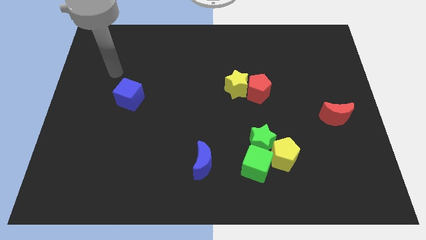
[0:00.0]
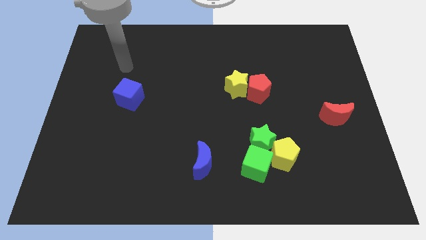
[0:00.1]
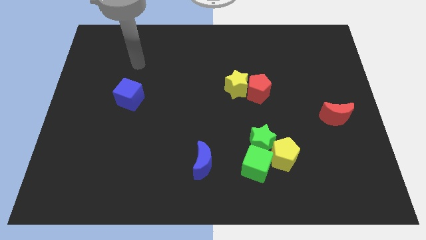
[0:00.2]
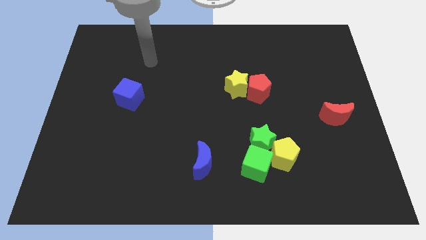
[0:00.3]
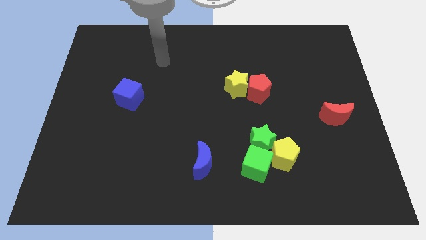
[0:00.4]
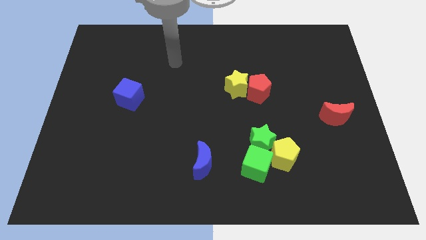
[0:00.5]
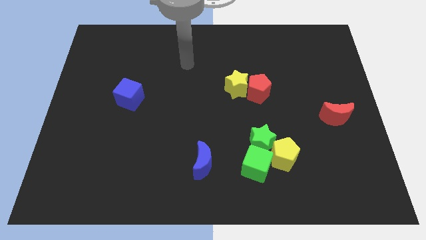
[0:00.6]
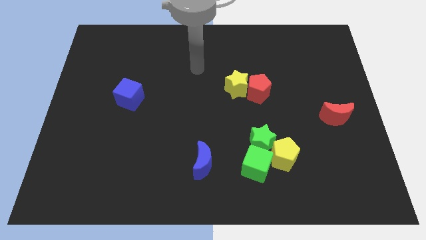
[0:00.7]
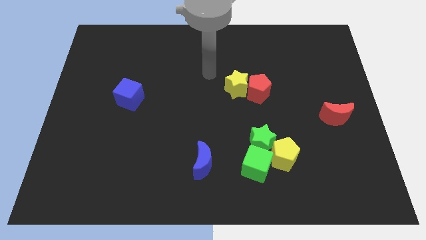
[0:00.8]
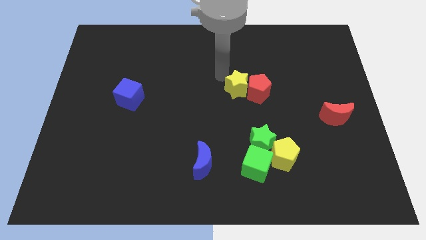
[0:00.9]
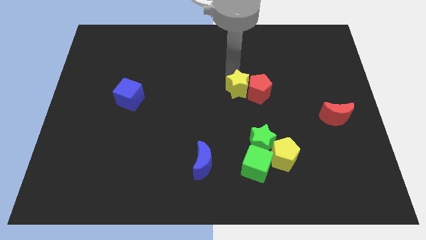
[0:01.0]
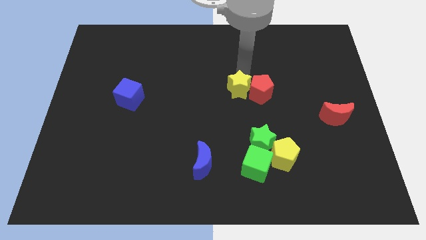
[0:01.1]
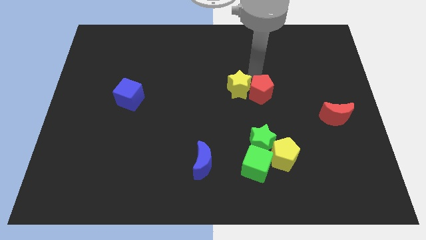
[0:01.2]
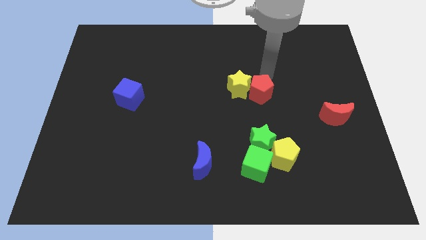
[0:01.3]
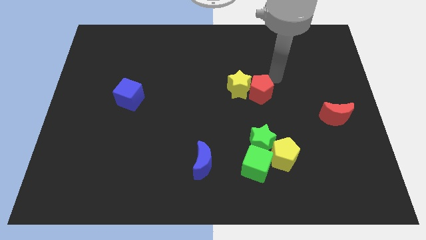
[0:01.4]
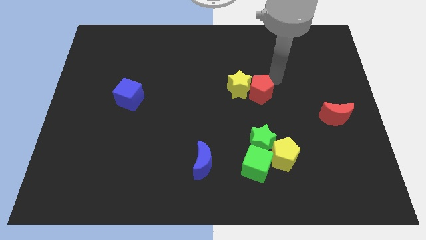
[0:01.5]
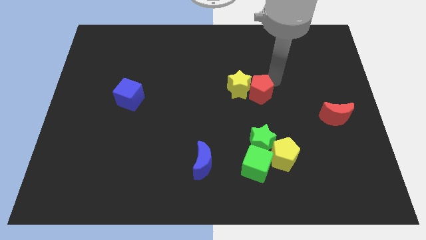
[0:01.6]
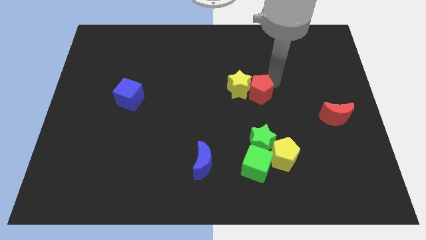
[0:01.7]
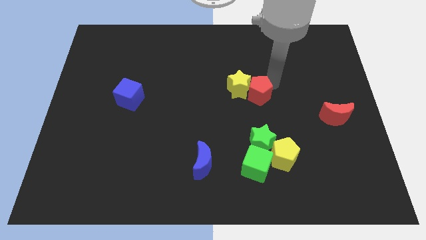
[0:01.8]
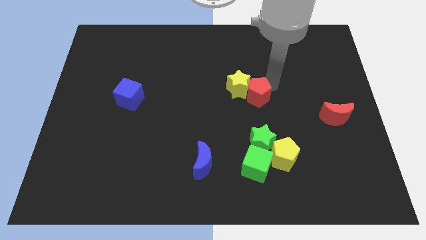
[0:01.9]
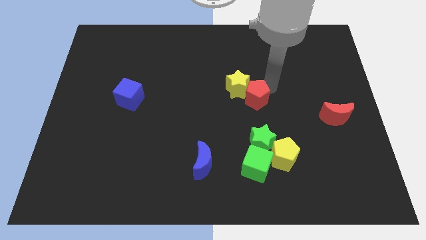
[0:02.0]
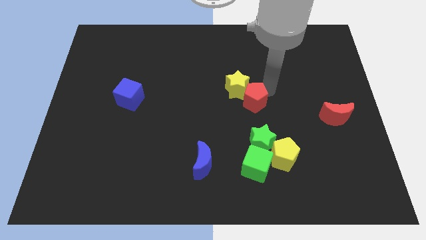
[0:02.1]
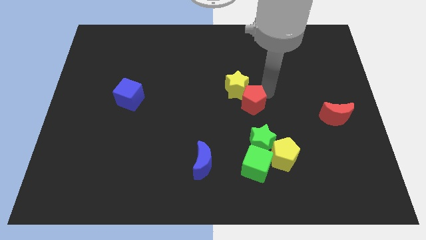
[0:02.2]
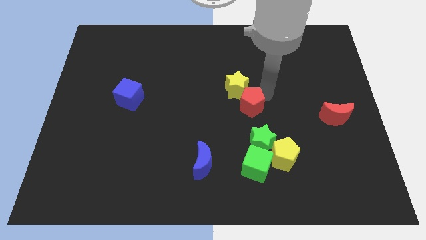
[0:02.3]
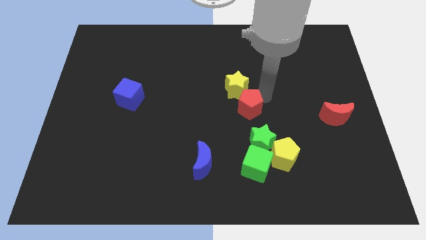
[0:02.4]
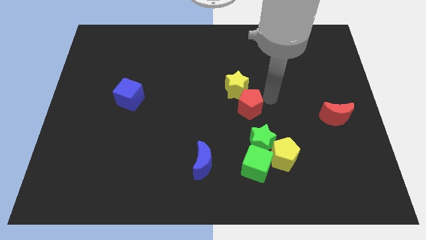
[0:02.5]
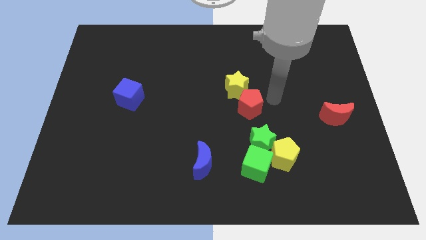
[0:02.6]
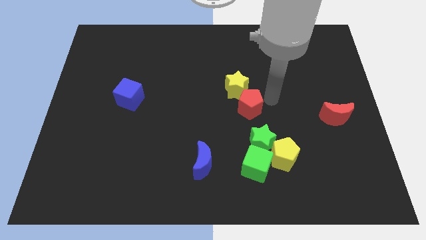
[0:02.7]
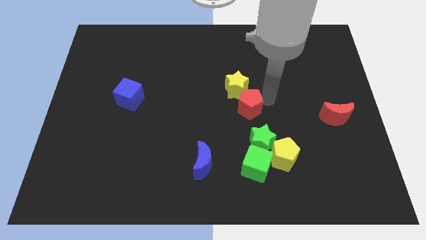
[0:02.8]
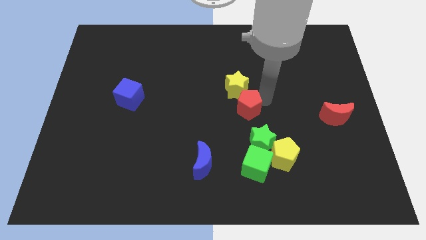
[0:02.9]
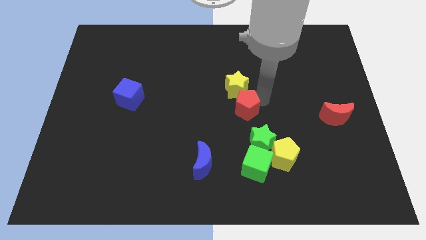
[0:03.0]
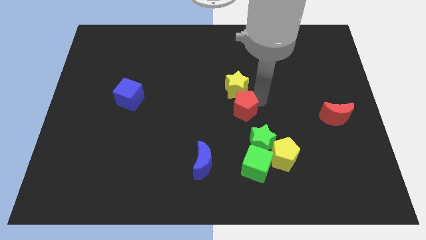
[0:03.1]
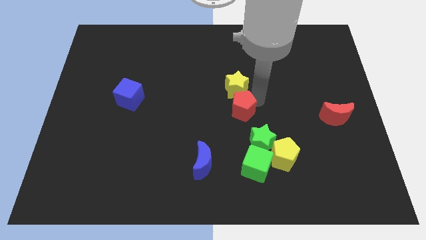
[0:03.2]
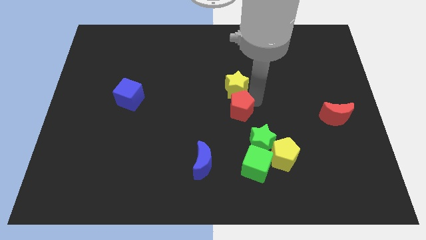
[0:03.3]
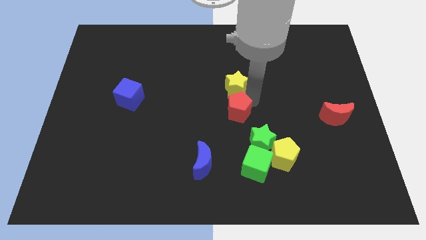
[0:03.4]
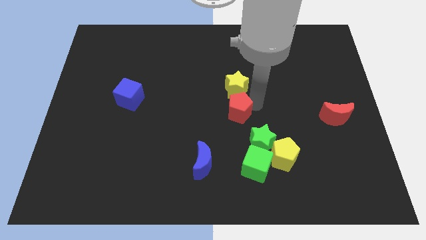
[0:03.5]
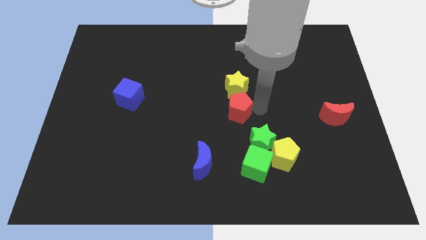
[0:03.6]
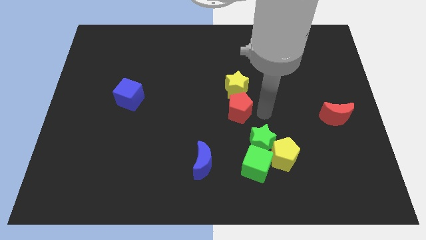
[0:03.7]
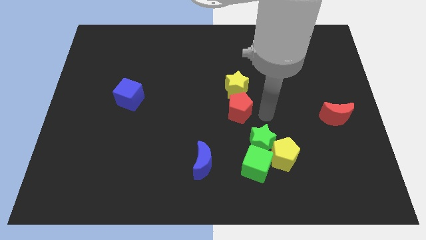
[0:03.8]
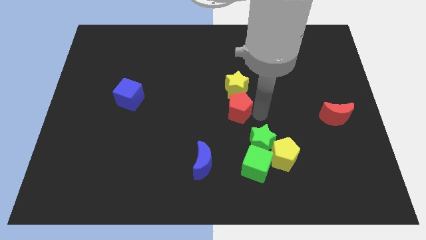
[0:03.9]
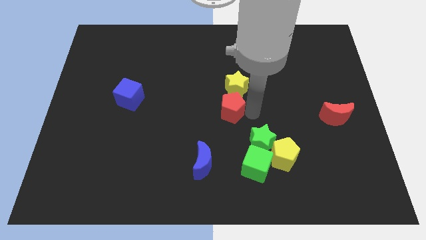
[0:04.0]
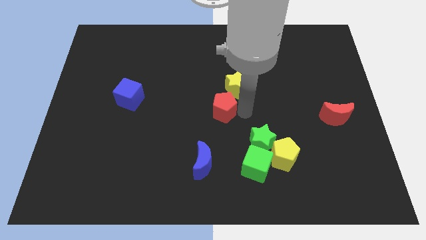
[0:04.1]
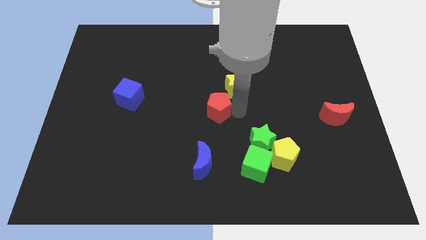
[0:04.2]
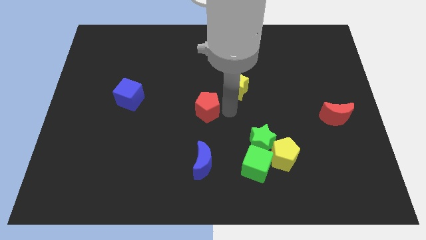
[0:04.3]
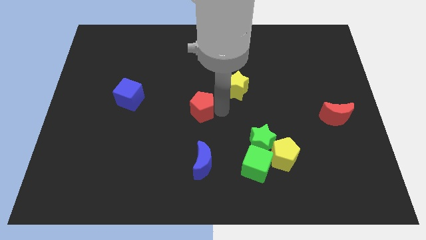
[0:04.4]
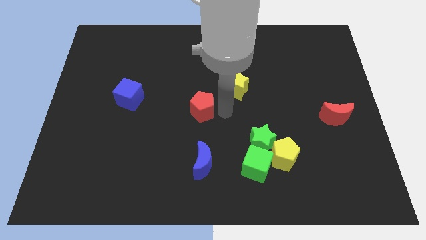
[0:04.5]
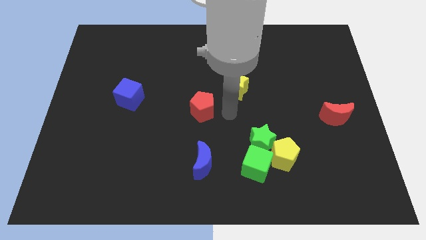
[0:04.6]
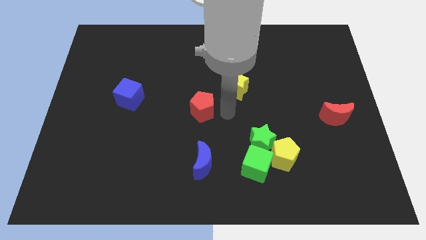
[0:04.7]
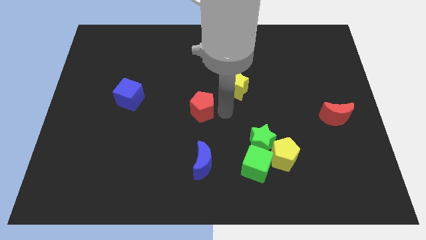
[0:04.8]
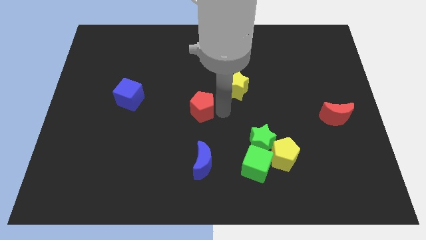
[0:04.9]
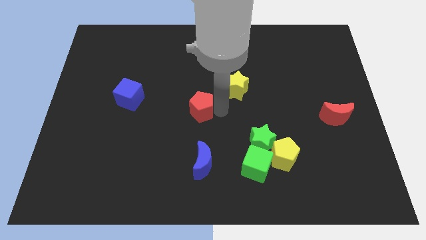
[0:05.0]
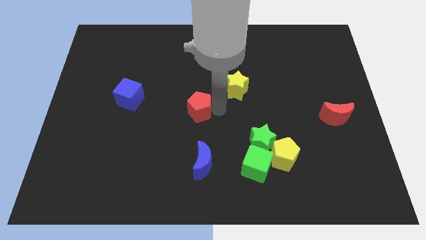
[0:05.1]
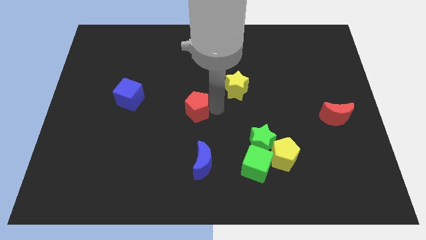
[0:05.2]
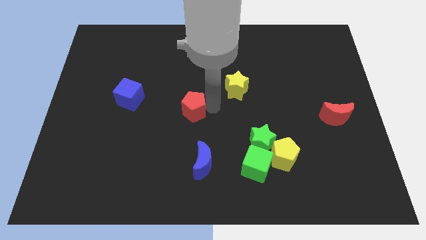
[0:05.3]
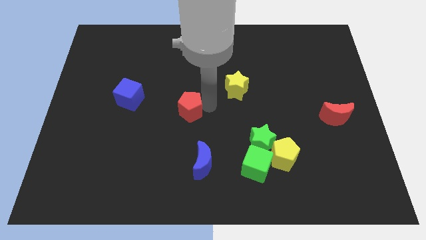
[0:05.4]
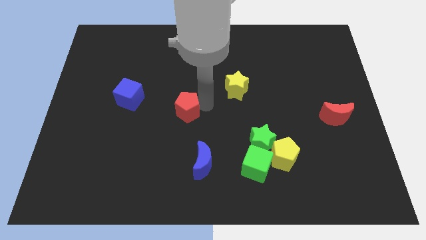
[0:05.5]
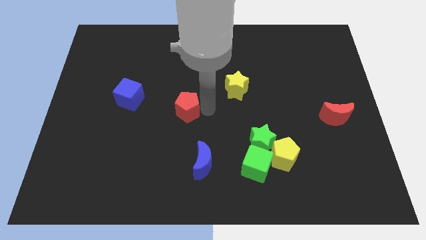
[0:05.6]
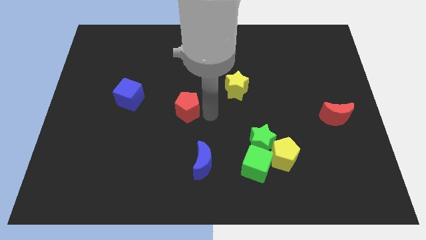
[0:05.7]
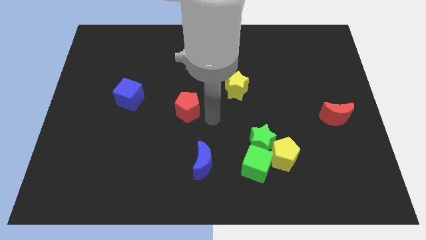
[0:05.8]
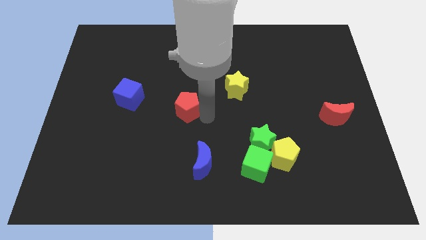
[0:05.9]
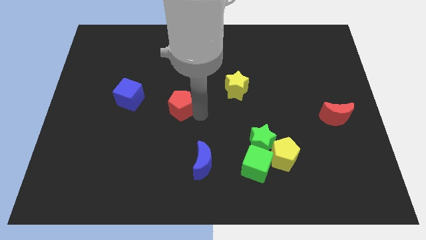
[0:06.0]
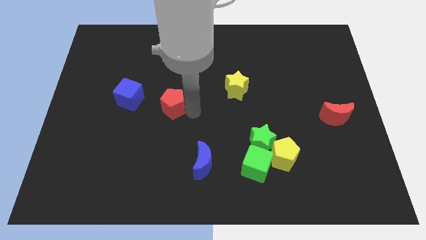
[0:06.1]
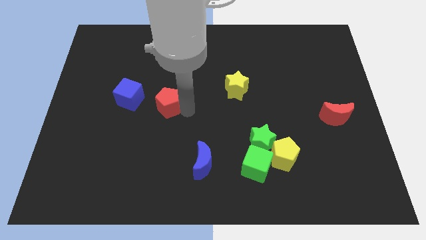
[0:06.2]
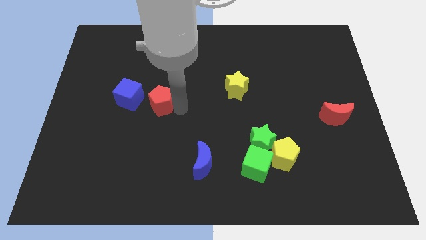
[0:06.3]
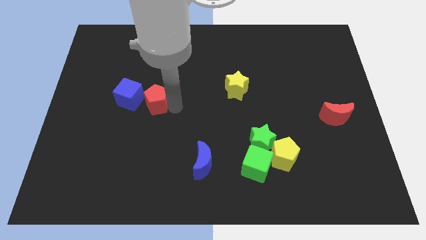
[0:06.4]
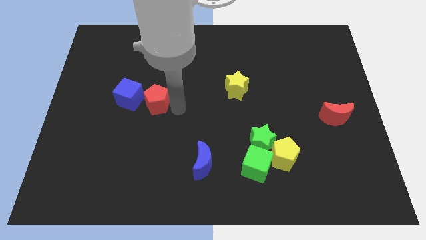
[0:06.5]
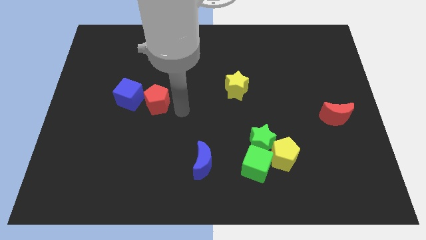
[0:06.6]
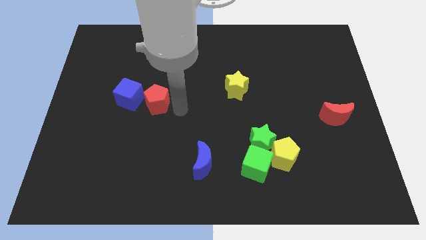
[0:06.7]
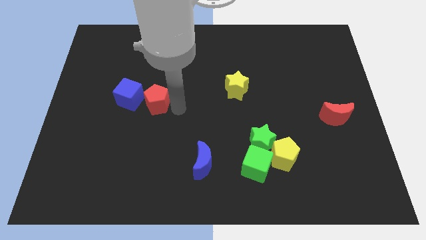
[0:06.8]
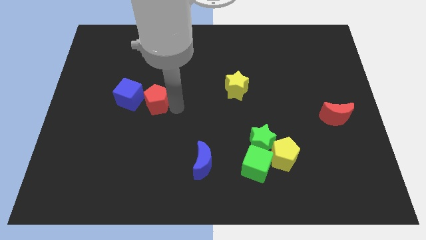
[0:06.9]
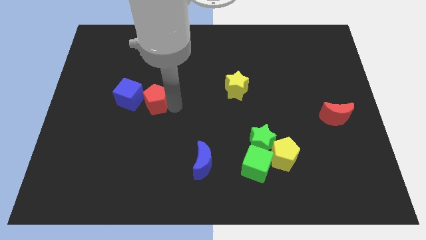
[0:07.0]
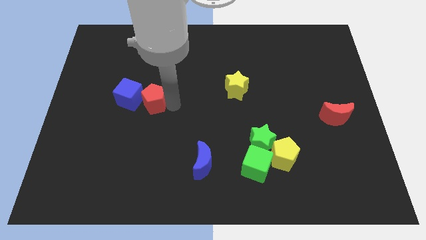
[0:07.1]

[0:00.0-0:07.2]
put the red pentagon to the blue cube

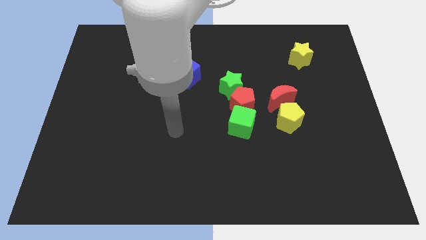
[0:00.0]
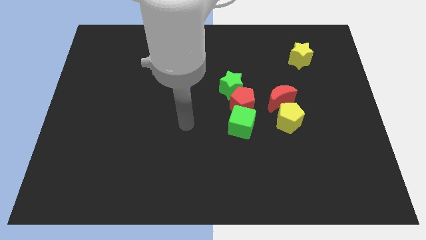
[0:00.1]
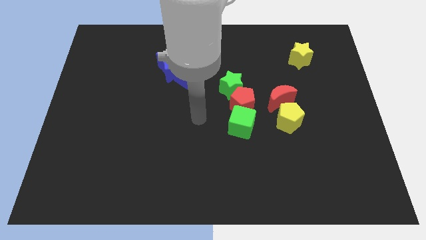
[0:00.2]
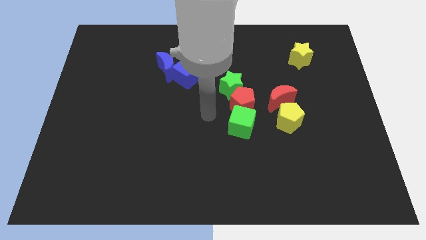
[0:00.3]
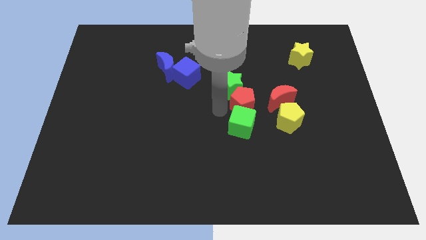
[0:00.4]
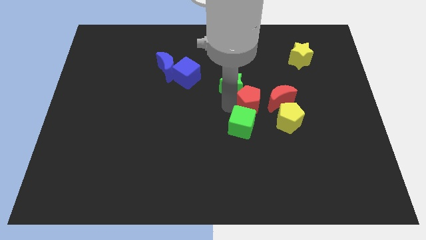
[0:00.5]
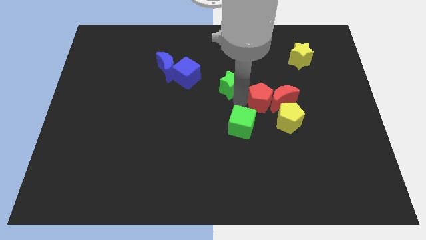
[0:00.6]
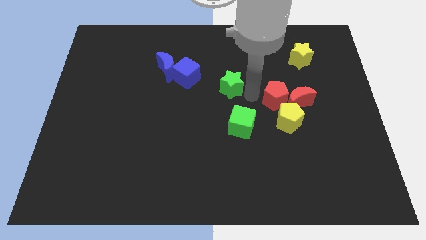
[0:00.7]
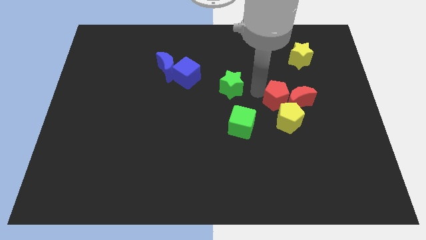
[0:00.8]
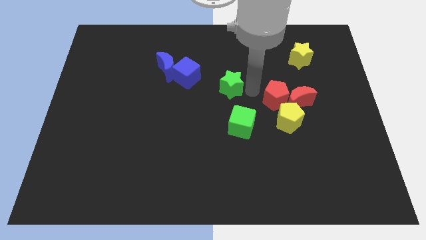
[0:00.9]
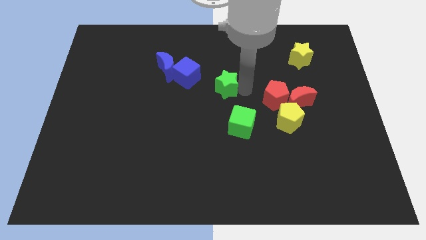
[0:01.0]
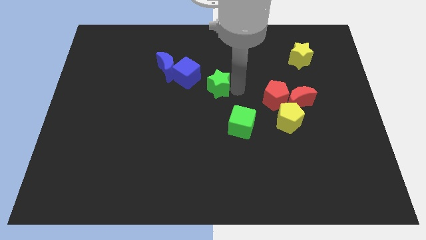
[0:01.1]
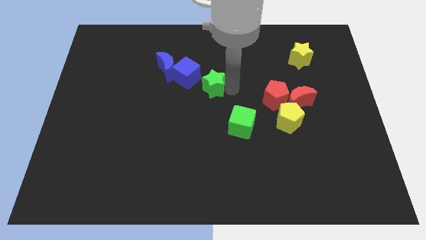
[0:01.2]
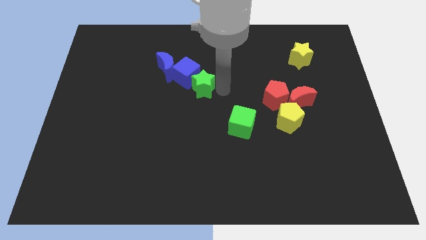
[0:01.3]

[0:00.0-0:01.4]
push the green star next to the blue cube
